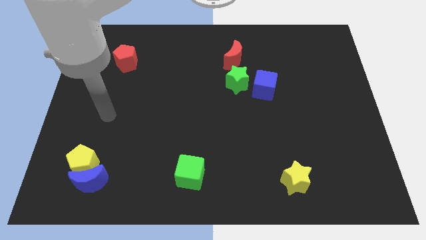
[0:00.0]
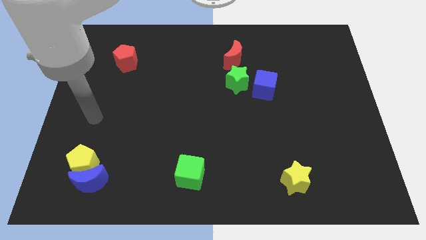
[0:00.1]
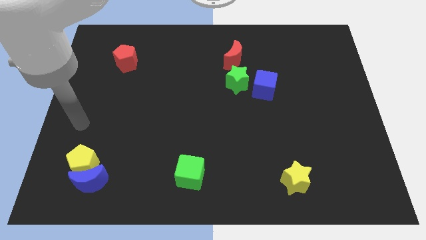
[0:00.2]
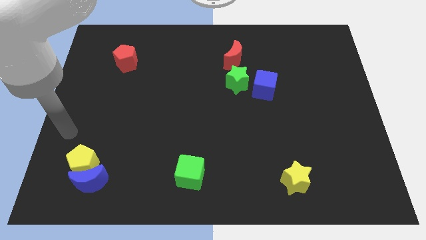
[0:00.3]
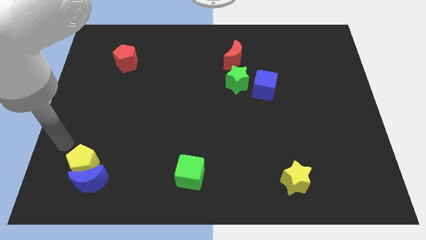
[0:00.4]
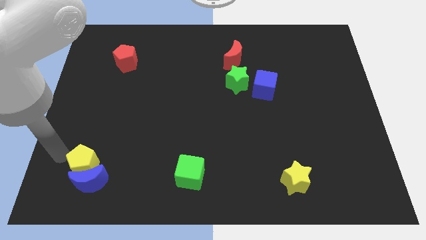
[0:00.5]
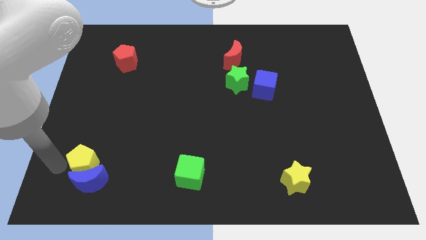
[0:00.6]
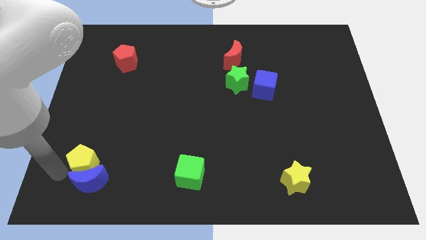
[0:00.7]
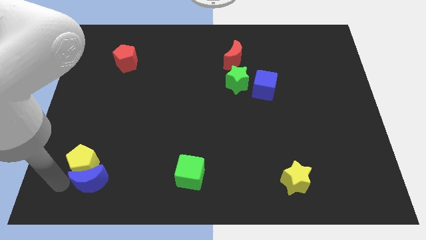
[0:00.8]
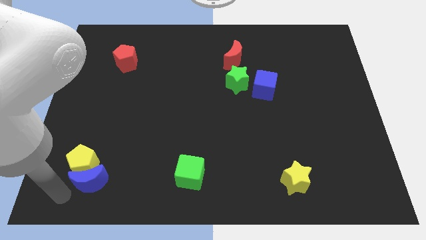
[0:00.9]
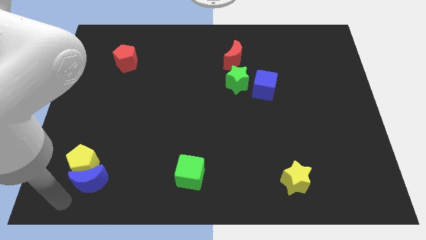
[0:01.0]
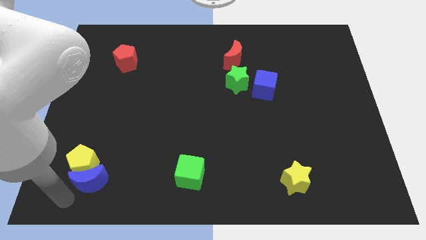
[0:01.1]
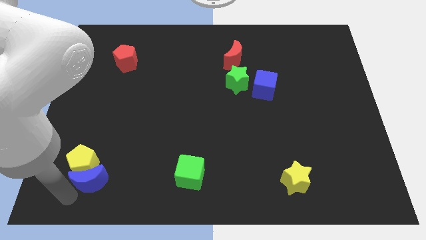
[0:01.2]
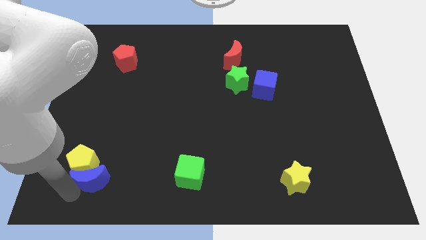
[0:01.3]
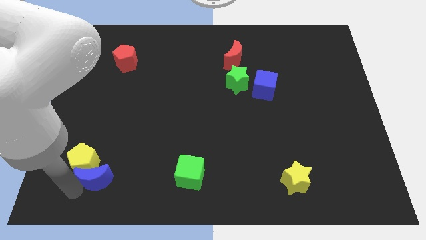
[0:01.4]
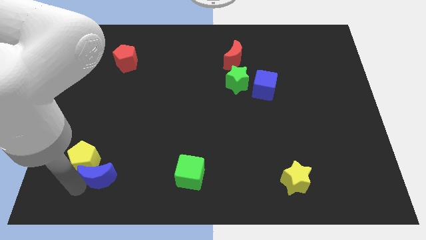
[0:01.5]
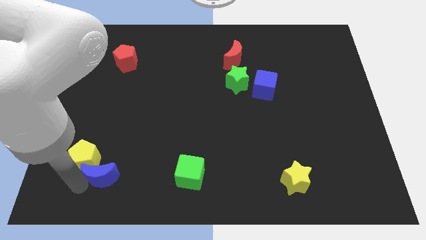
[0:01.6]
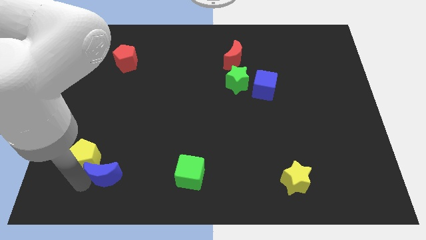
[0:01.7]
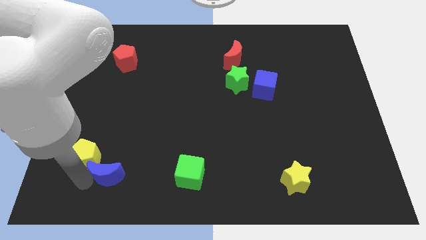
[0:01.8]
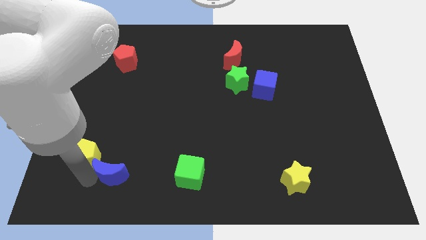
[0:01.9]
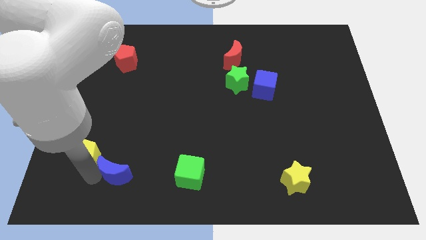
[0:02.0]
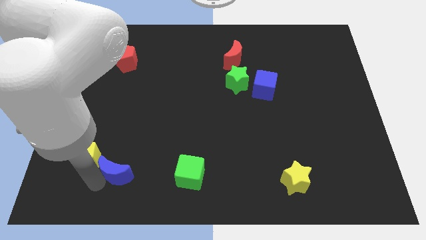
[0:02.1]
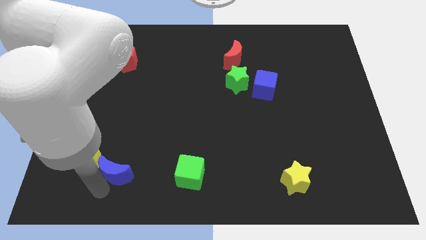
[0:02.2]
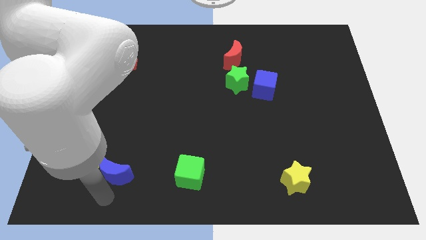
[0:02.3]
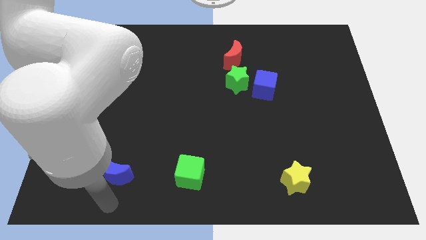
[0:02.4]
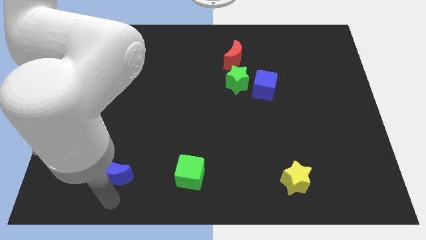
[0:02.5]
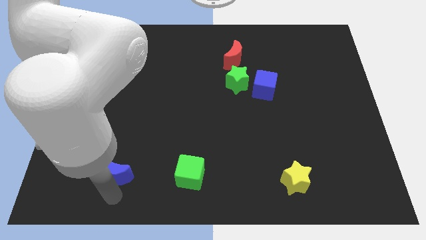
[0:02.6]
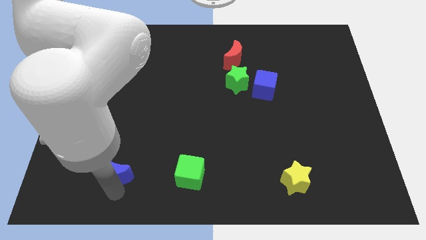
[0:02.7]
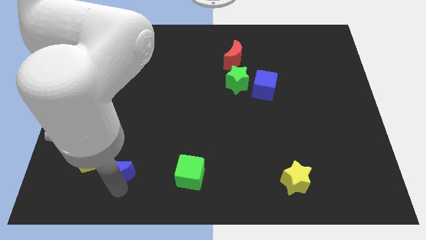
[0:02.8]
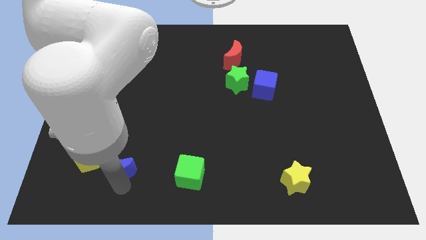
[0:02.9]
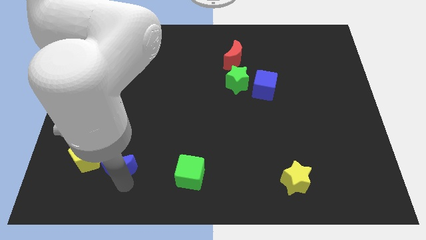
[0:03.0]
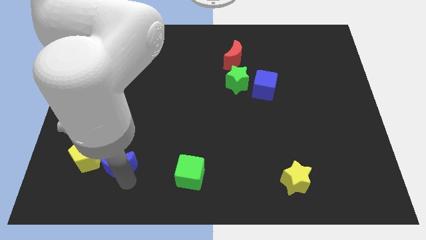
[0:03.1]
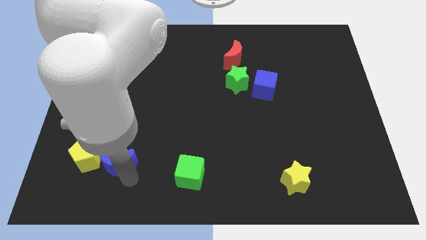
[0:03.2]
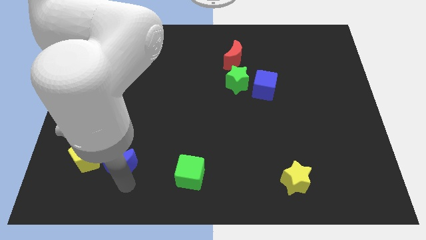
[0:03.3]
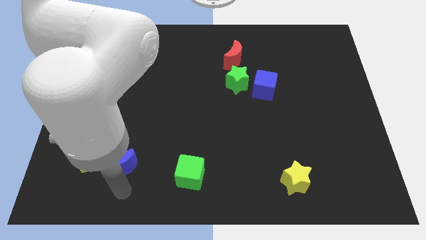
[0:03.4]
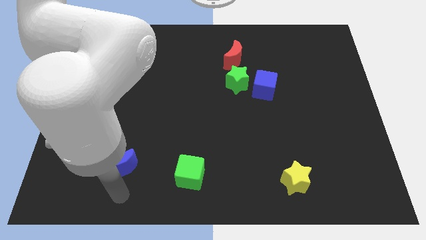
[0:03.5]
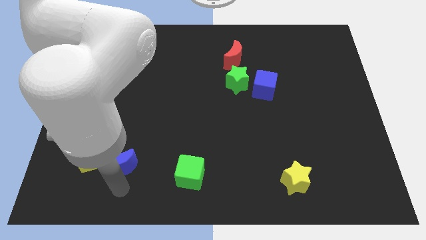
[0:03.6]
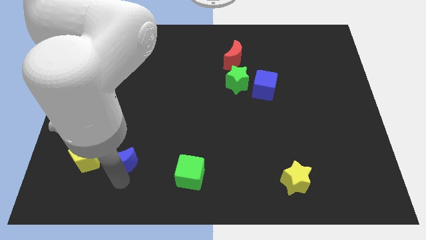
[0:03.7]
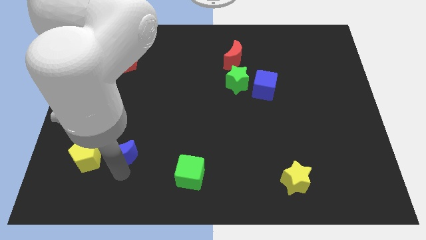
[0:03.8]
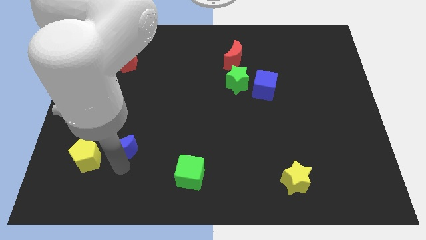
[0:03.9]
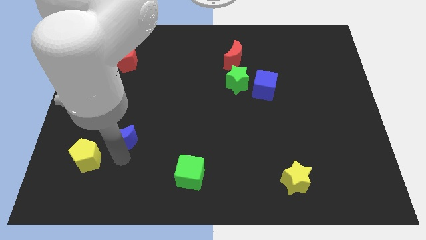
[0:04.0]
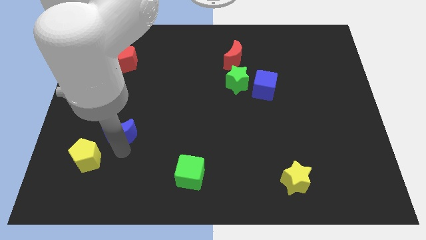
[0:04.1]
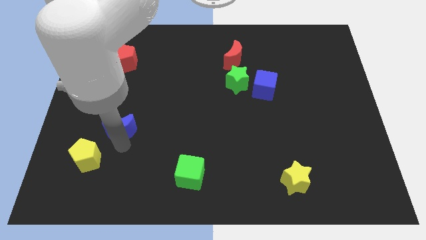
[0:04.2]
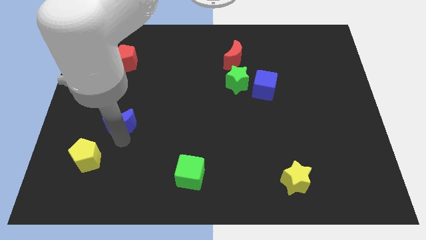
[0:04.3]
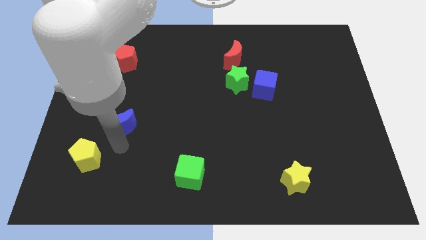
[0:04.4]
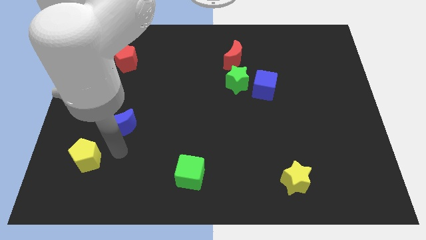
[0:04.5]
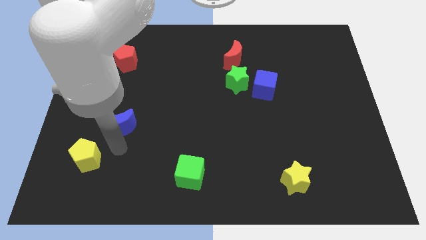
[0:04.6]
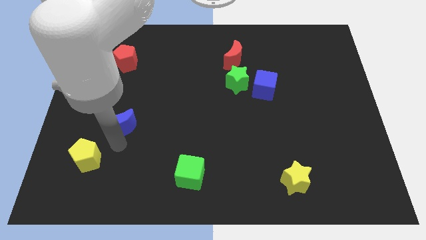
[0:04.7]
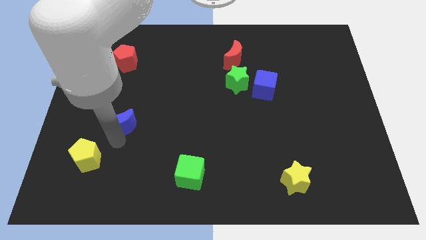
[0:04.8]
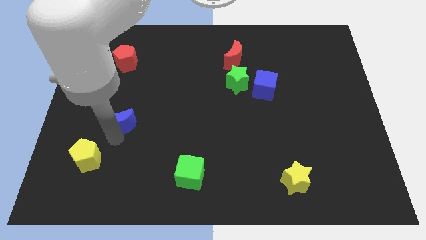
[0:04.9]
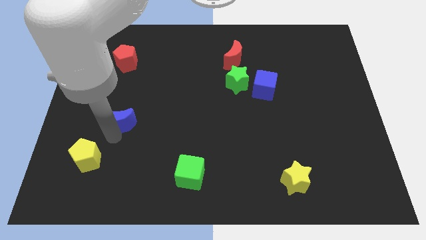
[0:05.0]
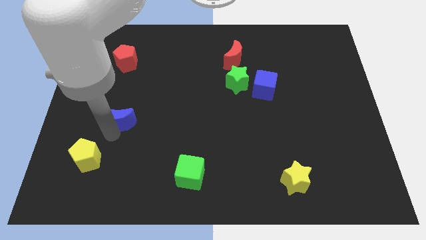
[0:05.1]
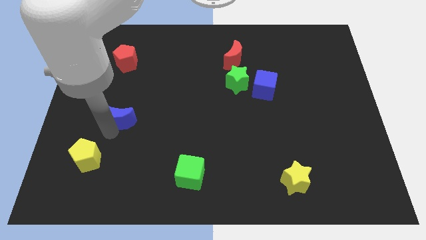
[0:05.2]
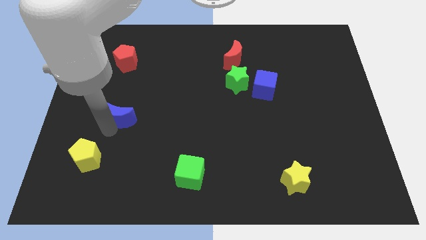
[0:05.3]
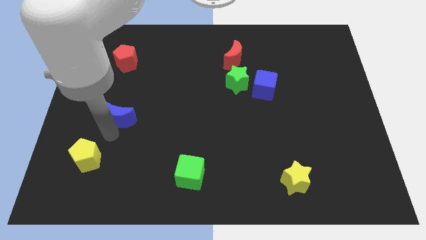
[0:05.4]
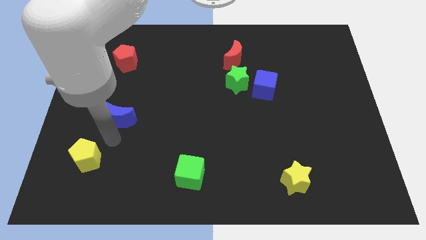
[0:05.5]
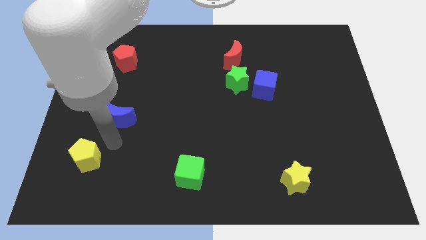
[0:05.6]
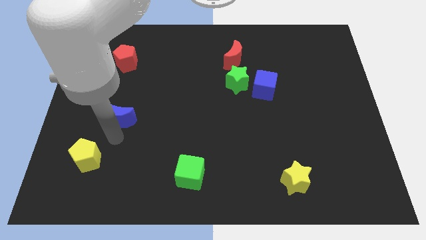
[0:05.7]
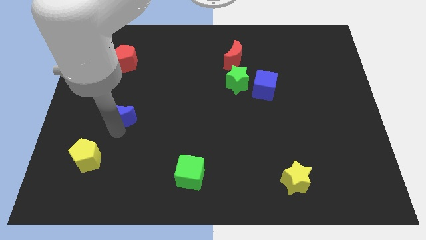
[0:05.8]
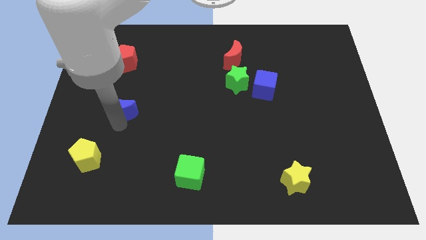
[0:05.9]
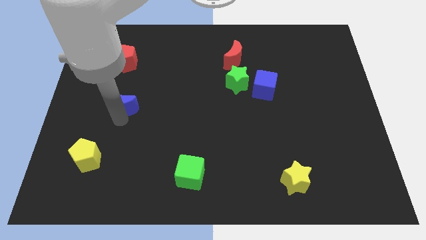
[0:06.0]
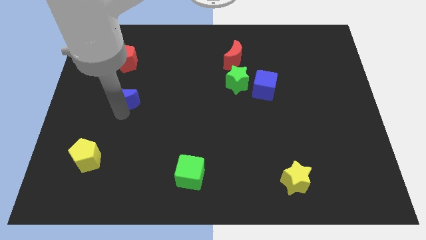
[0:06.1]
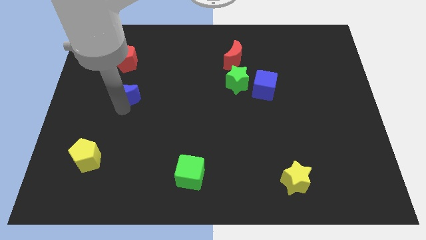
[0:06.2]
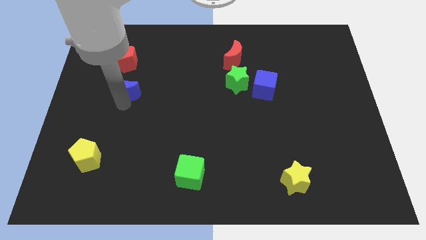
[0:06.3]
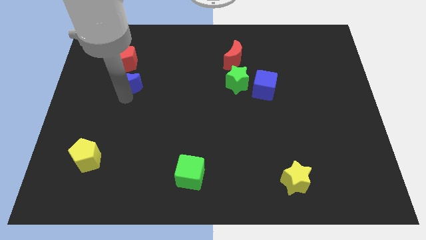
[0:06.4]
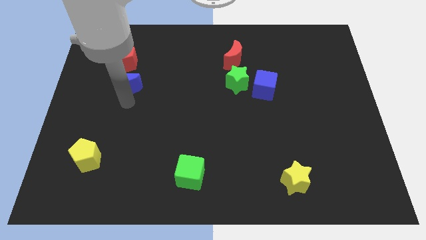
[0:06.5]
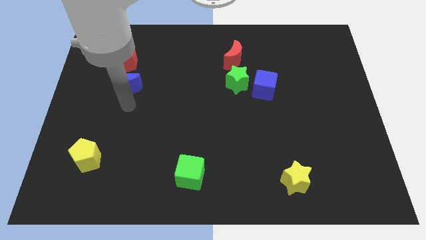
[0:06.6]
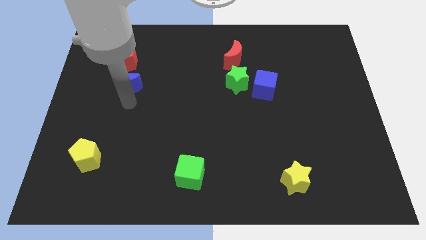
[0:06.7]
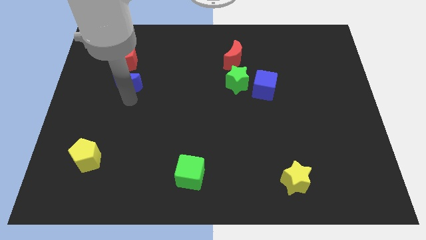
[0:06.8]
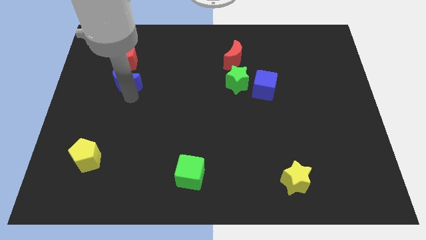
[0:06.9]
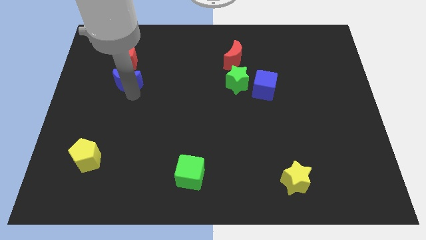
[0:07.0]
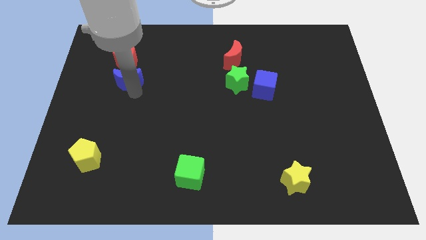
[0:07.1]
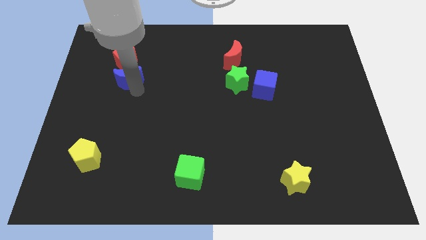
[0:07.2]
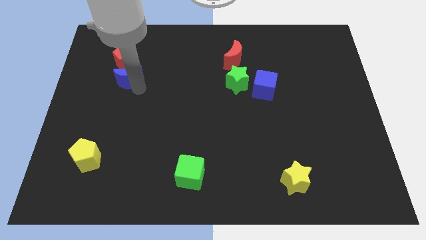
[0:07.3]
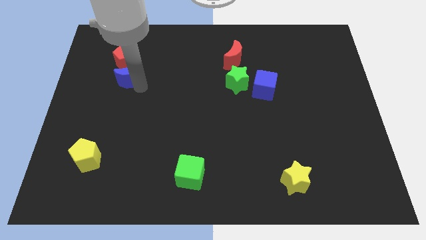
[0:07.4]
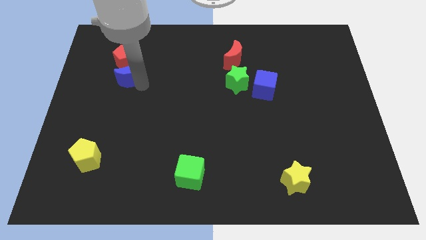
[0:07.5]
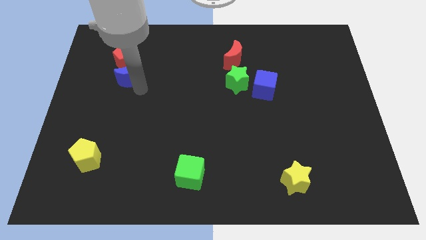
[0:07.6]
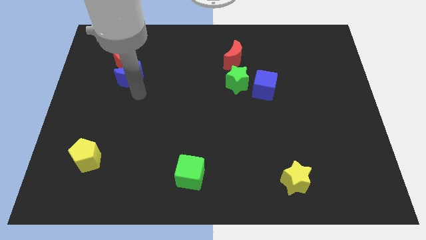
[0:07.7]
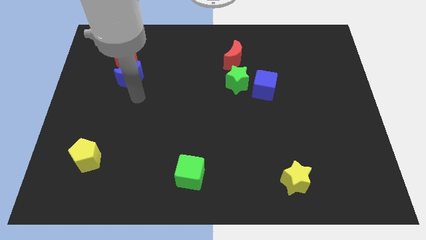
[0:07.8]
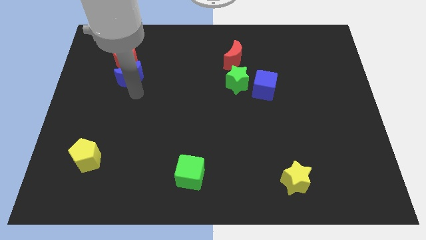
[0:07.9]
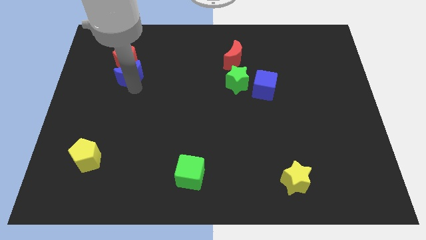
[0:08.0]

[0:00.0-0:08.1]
move the blue moon towards the red pentagon
